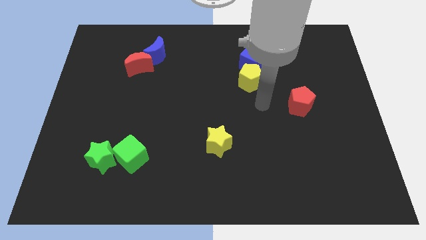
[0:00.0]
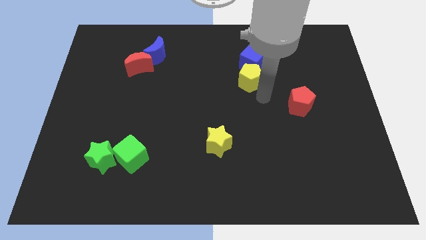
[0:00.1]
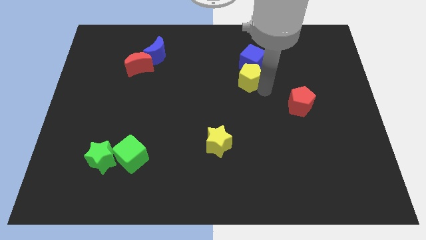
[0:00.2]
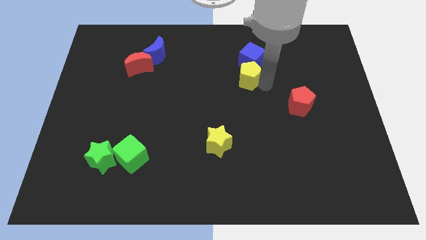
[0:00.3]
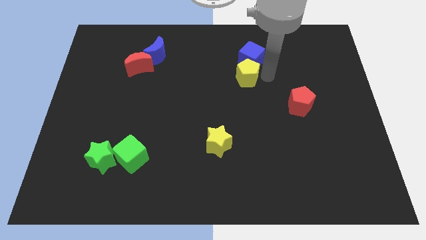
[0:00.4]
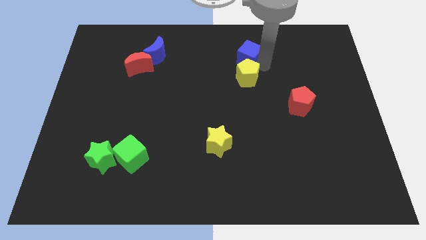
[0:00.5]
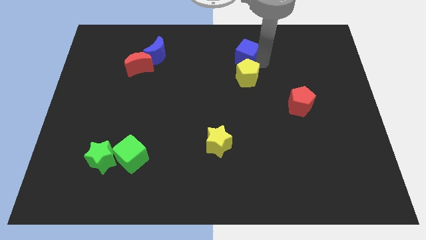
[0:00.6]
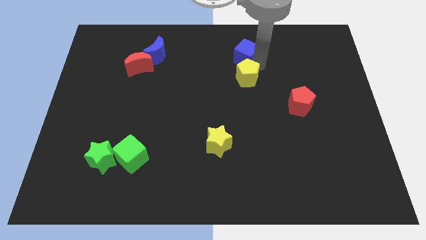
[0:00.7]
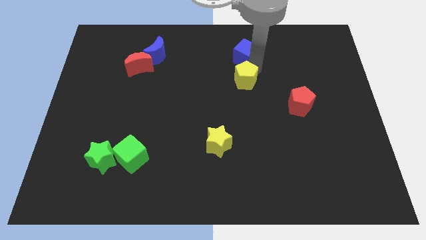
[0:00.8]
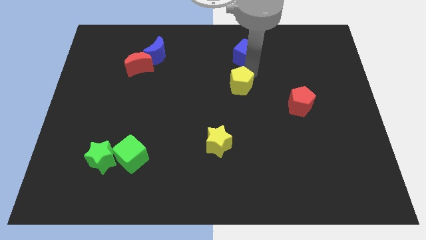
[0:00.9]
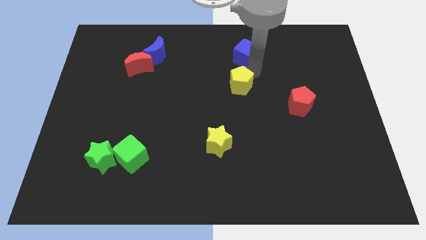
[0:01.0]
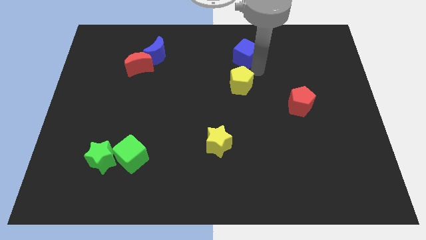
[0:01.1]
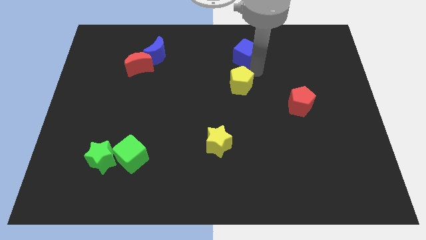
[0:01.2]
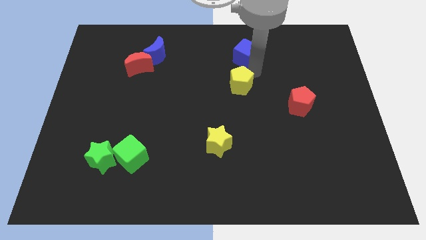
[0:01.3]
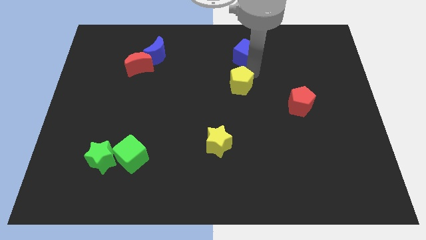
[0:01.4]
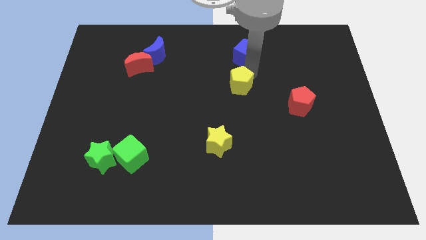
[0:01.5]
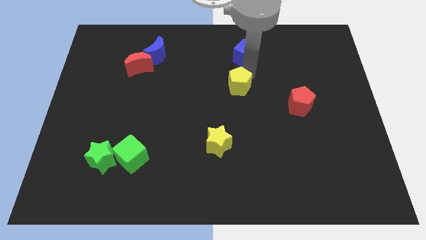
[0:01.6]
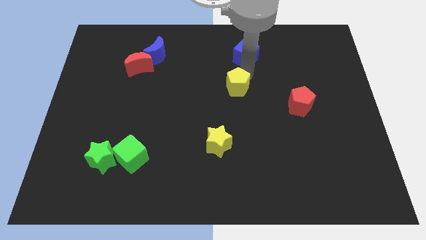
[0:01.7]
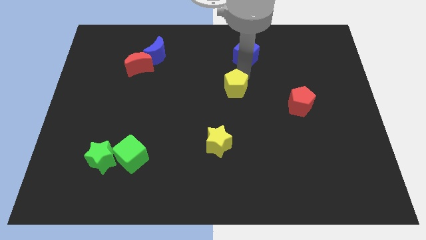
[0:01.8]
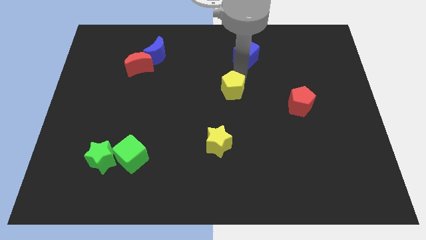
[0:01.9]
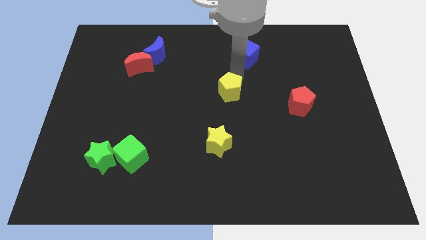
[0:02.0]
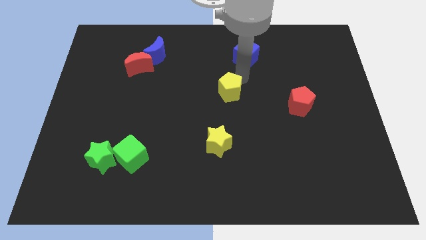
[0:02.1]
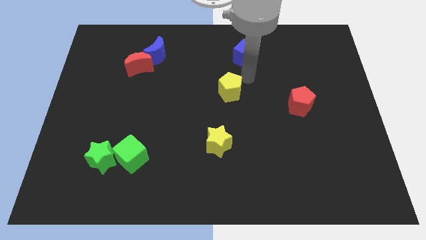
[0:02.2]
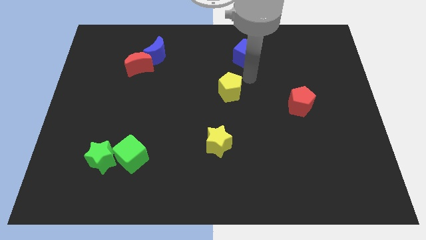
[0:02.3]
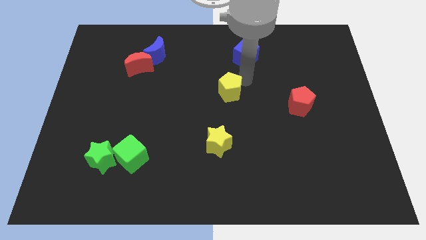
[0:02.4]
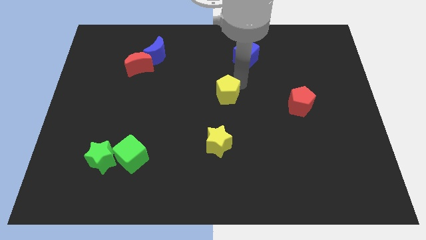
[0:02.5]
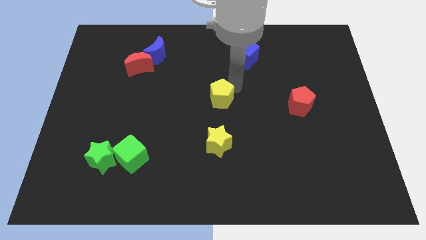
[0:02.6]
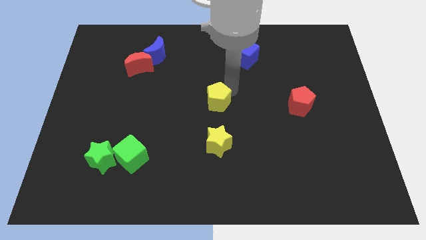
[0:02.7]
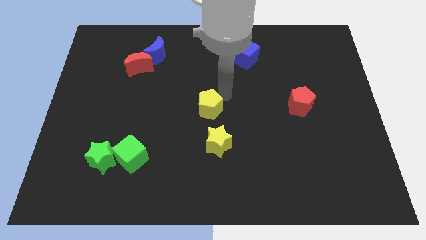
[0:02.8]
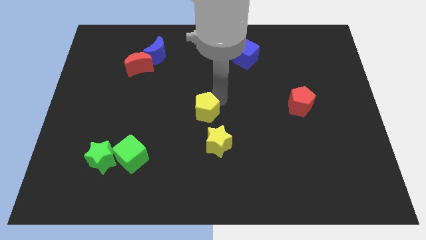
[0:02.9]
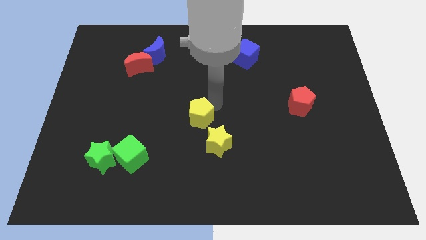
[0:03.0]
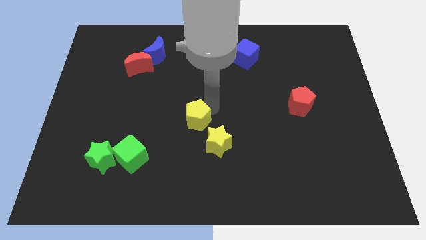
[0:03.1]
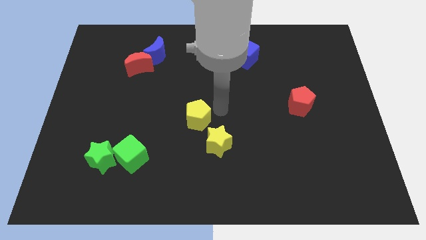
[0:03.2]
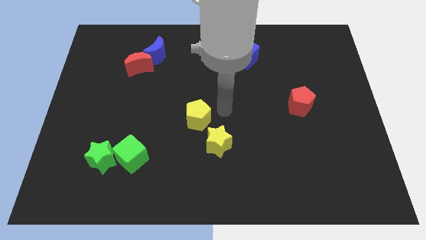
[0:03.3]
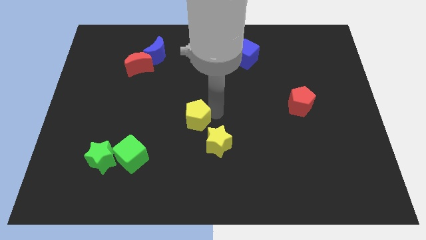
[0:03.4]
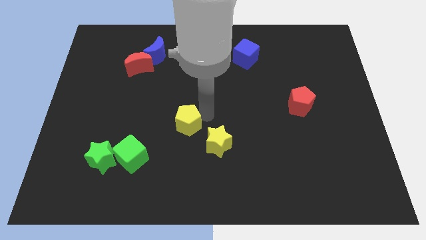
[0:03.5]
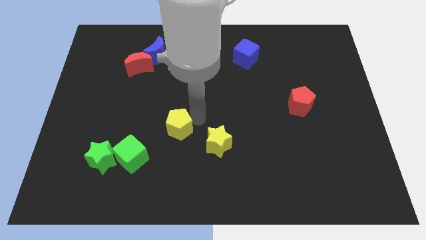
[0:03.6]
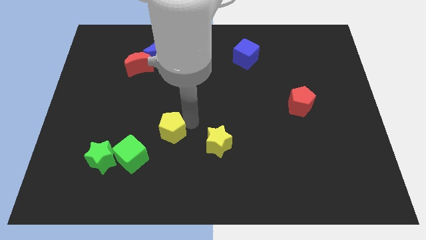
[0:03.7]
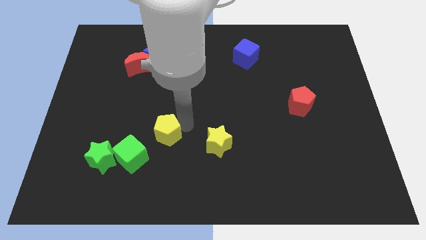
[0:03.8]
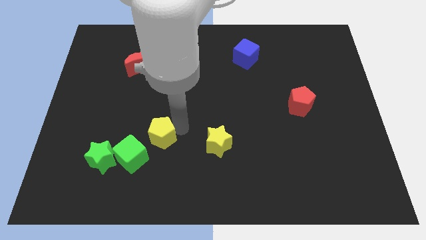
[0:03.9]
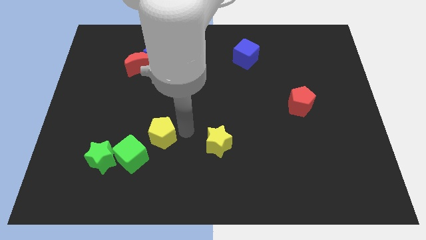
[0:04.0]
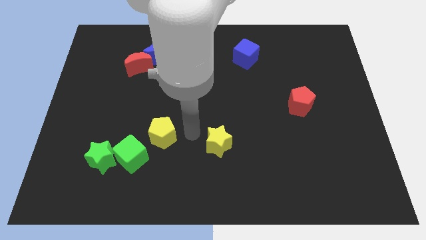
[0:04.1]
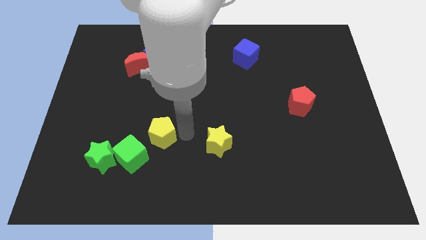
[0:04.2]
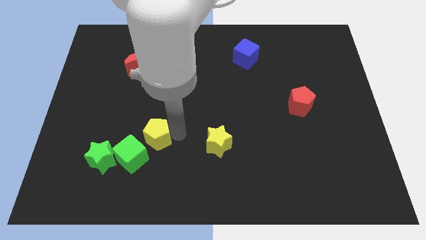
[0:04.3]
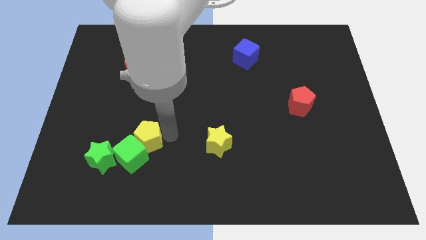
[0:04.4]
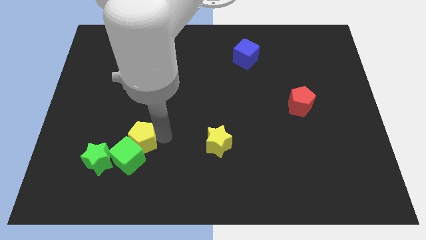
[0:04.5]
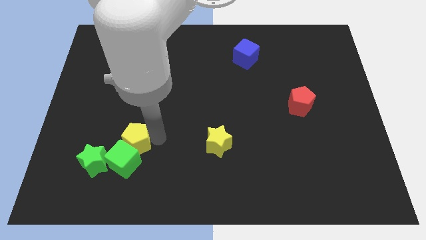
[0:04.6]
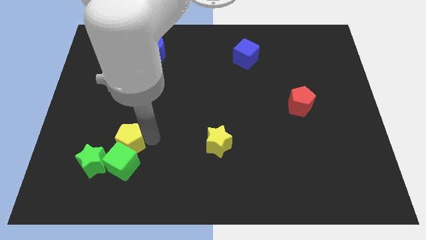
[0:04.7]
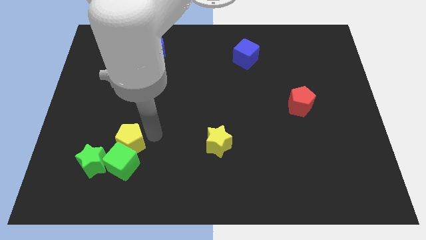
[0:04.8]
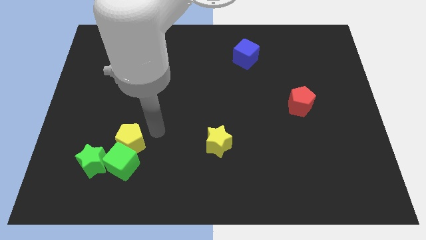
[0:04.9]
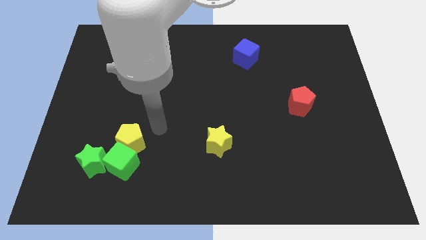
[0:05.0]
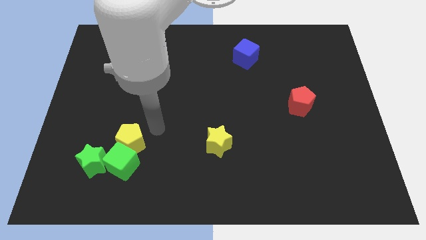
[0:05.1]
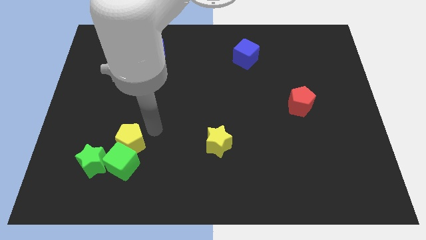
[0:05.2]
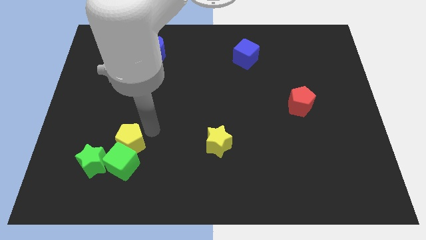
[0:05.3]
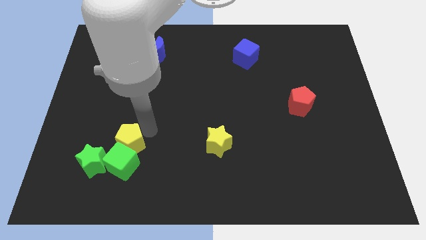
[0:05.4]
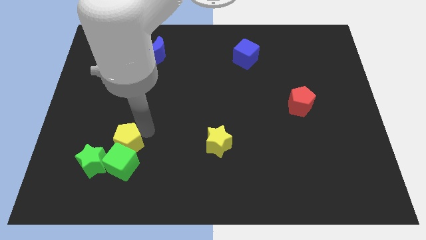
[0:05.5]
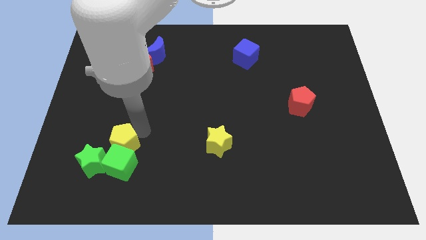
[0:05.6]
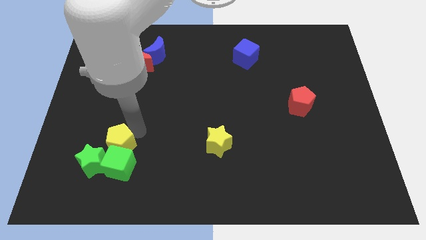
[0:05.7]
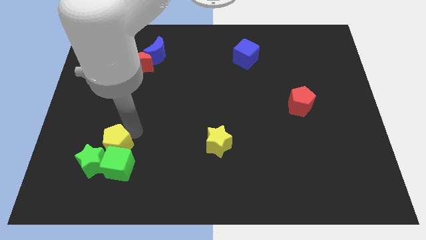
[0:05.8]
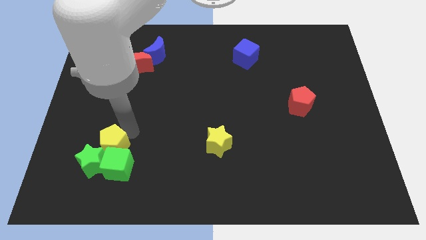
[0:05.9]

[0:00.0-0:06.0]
push the yellow pentagon next to the green star

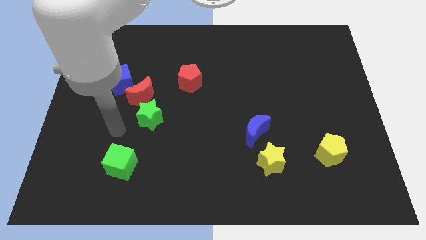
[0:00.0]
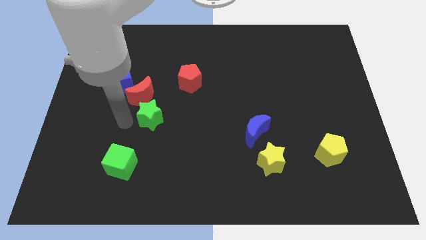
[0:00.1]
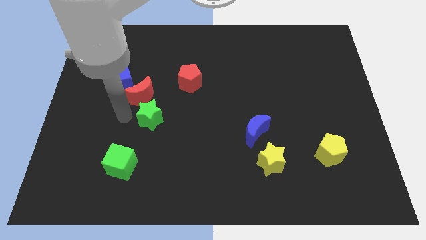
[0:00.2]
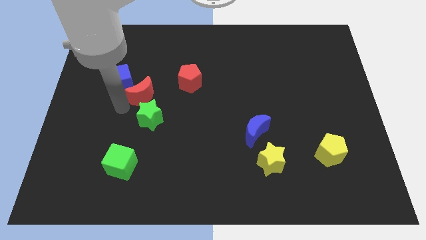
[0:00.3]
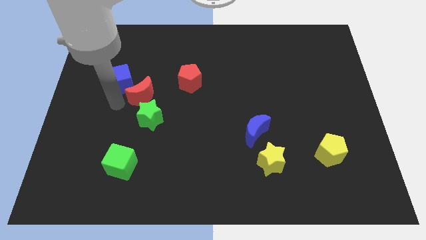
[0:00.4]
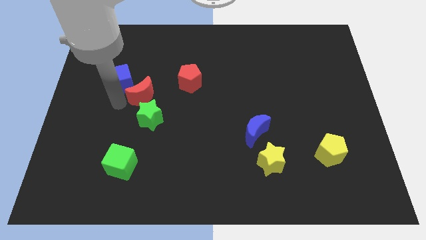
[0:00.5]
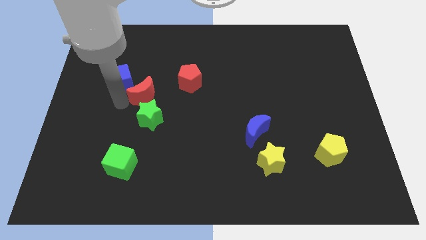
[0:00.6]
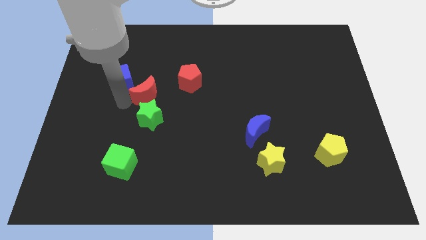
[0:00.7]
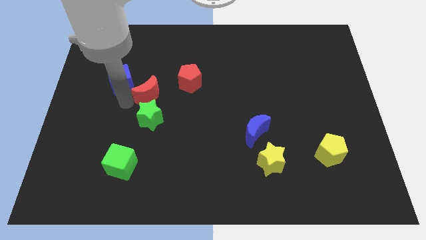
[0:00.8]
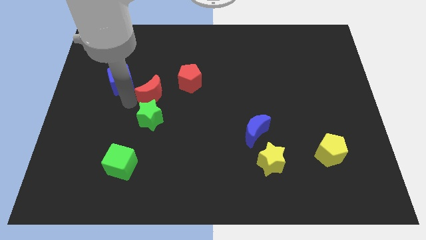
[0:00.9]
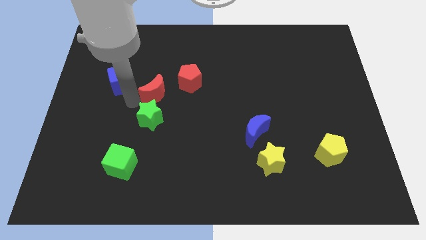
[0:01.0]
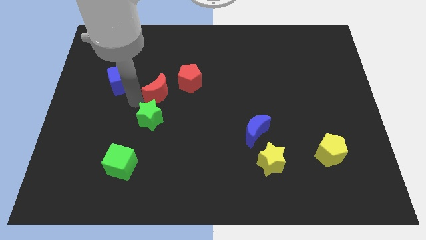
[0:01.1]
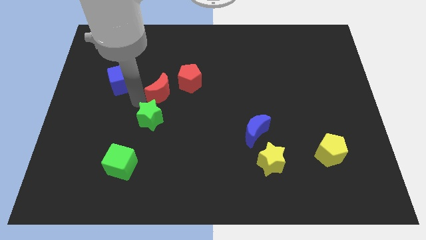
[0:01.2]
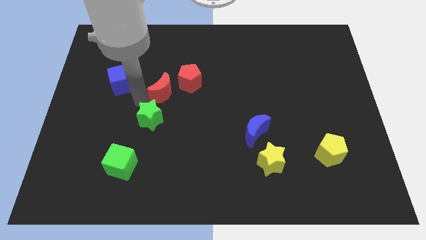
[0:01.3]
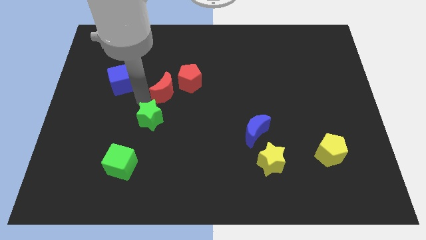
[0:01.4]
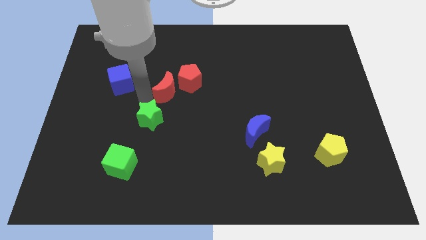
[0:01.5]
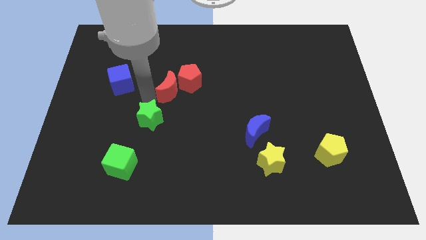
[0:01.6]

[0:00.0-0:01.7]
slide the red moon to the red pentagon
